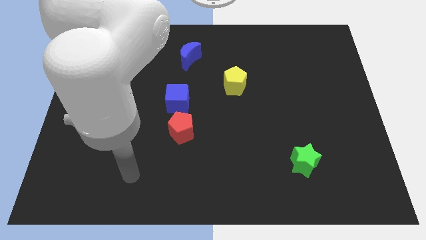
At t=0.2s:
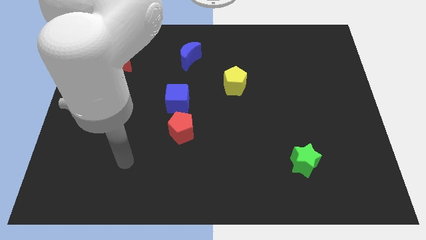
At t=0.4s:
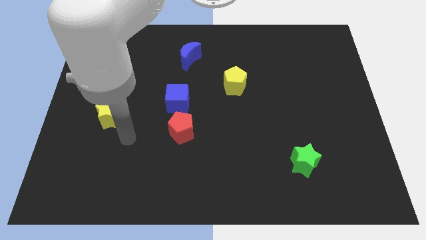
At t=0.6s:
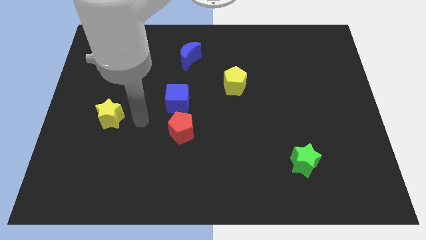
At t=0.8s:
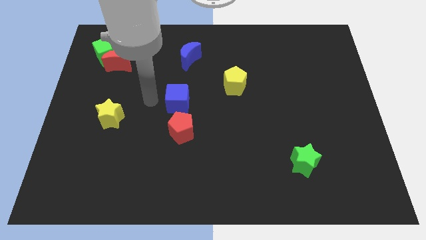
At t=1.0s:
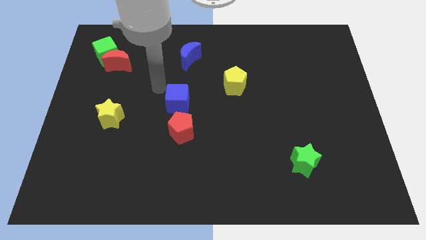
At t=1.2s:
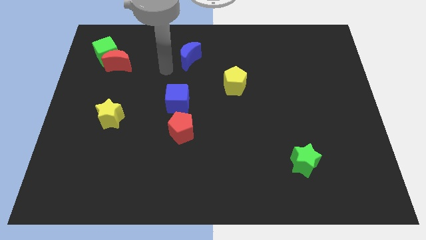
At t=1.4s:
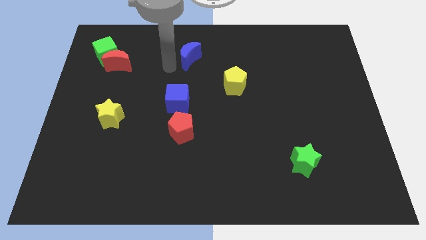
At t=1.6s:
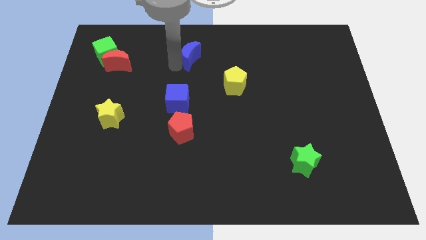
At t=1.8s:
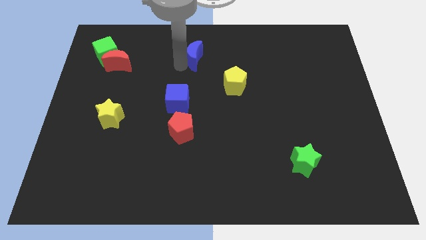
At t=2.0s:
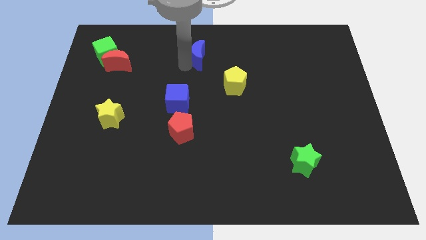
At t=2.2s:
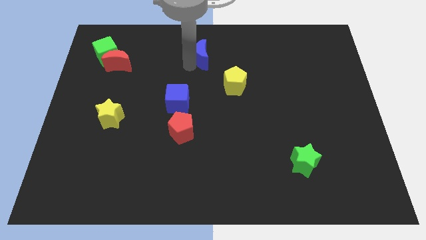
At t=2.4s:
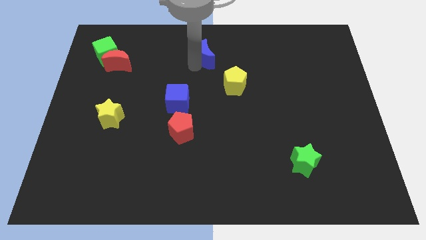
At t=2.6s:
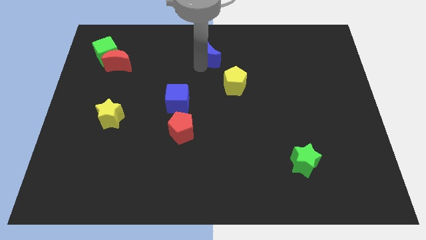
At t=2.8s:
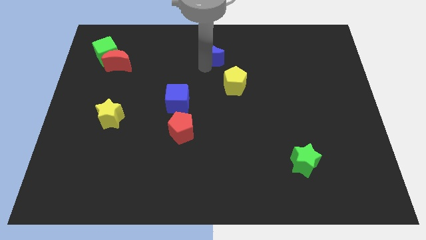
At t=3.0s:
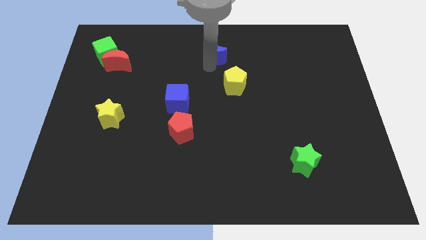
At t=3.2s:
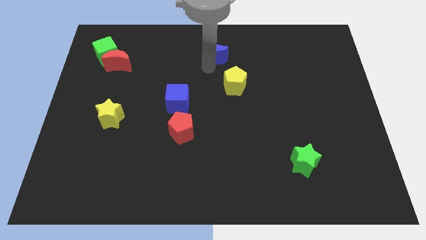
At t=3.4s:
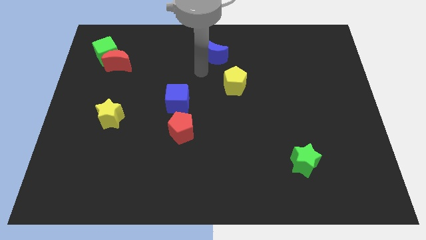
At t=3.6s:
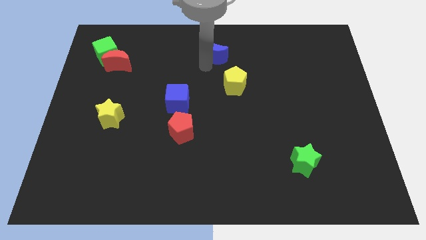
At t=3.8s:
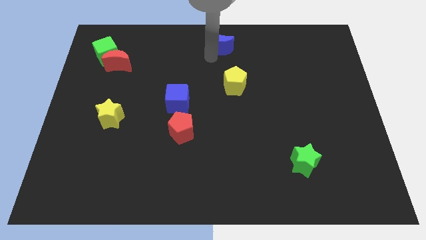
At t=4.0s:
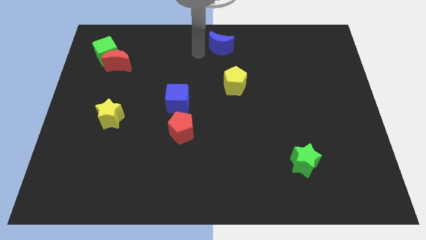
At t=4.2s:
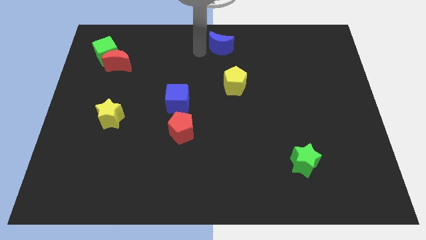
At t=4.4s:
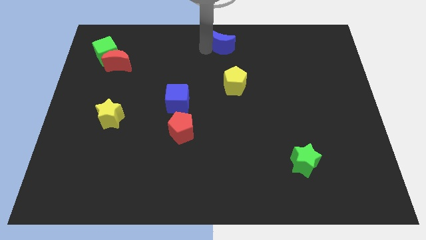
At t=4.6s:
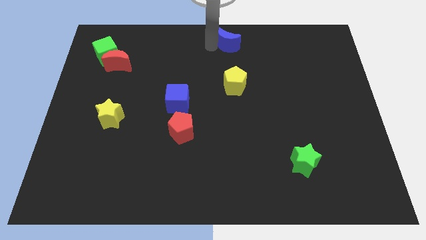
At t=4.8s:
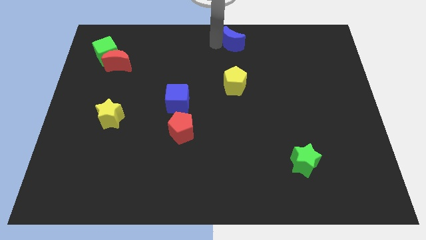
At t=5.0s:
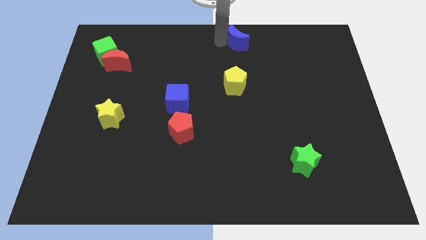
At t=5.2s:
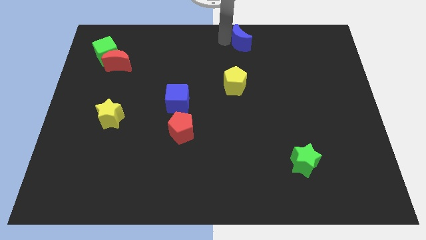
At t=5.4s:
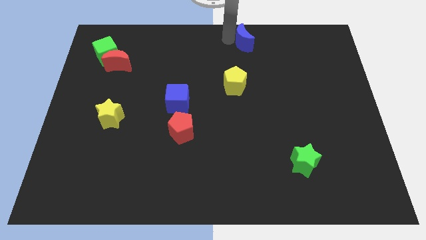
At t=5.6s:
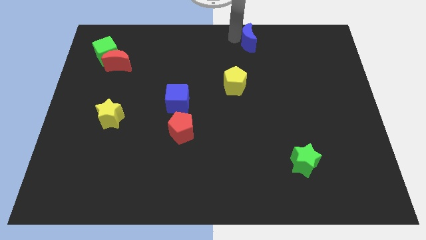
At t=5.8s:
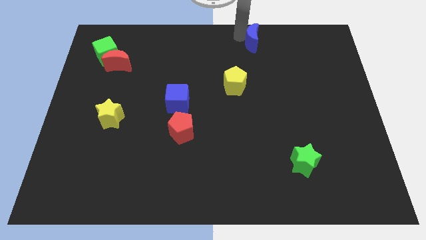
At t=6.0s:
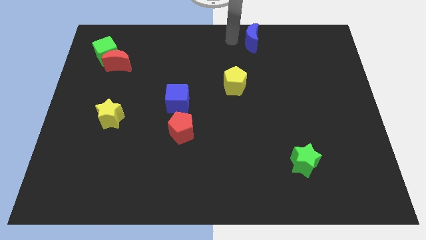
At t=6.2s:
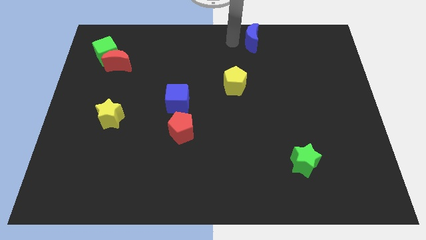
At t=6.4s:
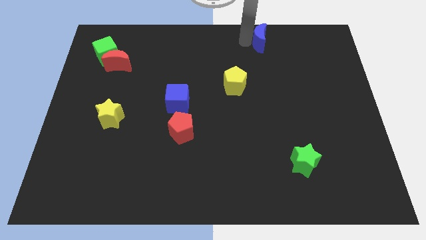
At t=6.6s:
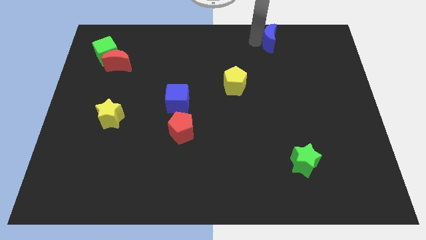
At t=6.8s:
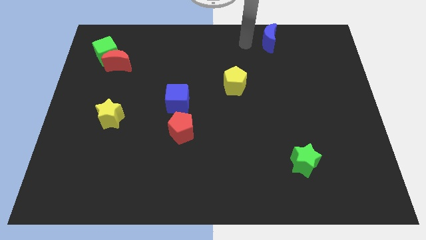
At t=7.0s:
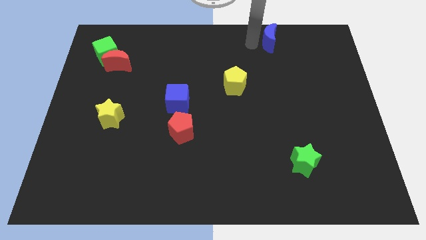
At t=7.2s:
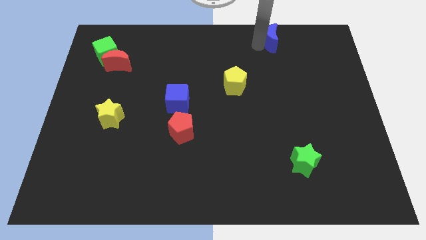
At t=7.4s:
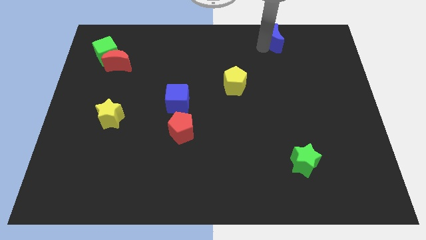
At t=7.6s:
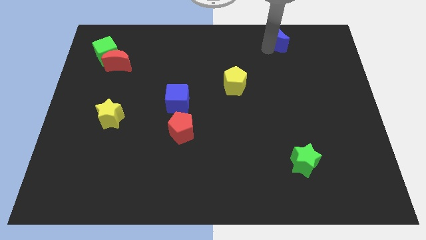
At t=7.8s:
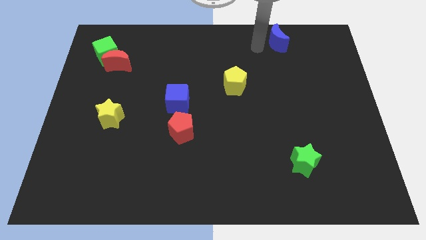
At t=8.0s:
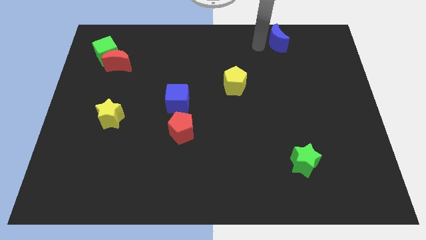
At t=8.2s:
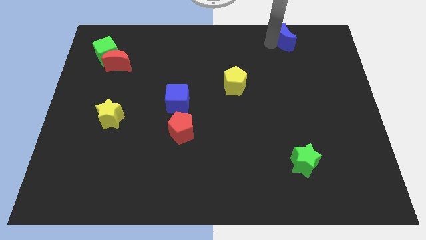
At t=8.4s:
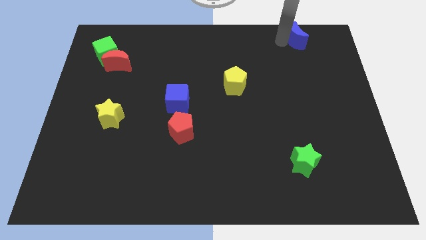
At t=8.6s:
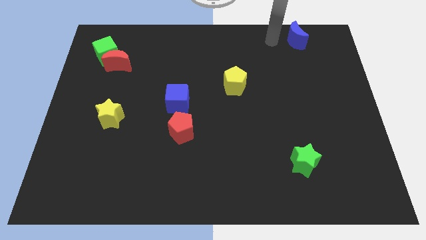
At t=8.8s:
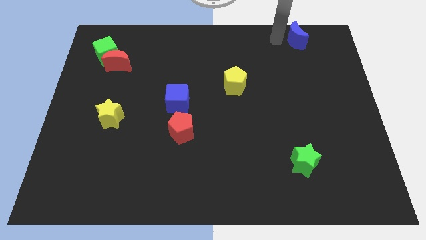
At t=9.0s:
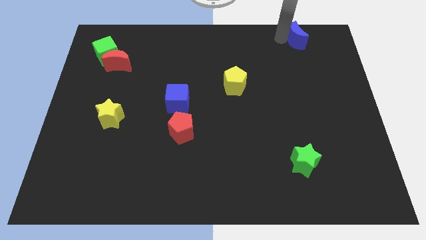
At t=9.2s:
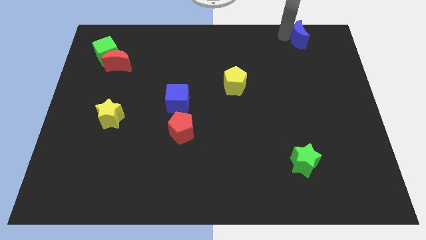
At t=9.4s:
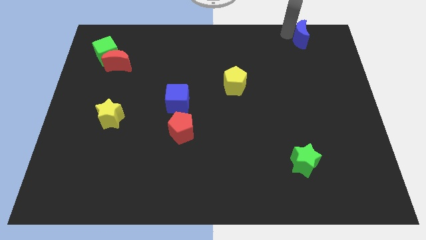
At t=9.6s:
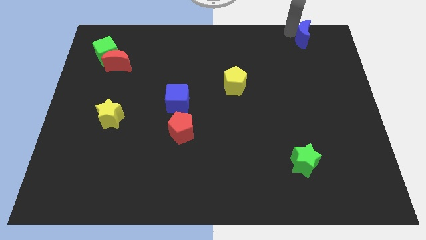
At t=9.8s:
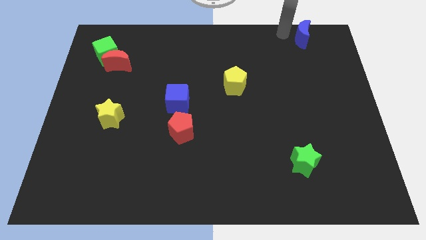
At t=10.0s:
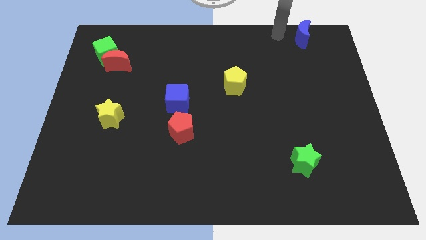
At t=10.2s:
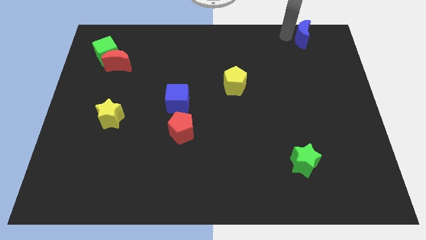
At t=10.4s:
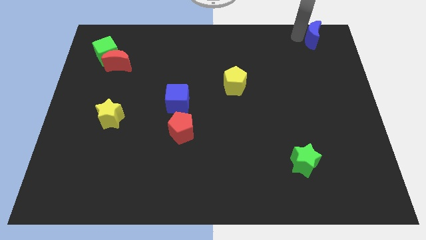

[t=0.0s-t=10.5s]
put the blue moon to the upper right corner

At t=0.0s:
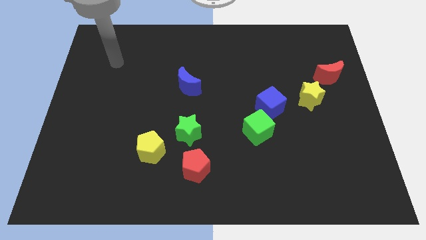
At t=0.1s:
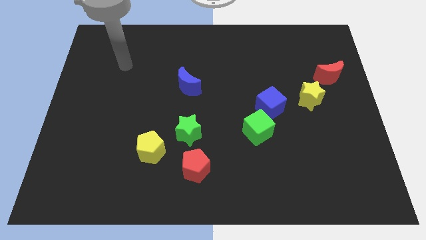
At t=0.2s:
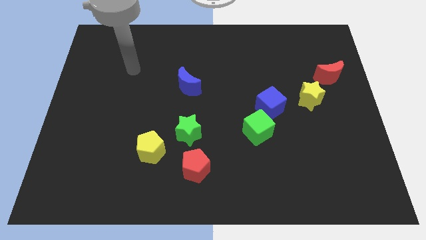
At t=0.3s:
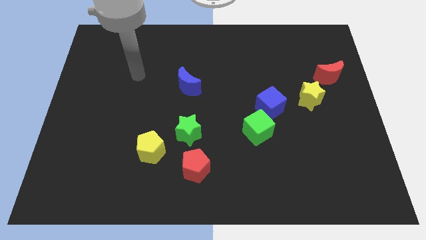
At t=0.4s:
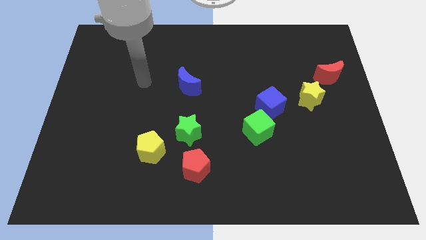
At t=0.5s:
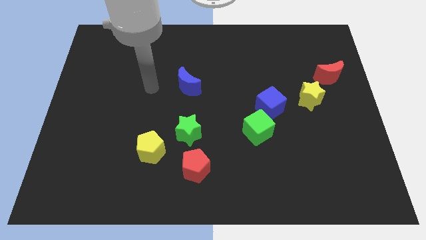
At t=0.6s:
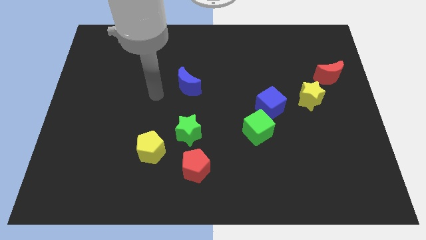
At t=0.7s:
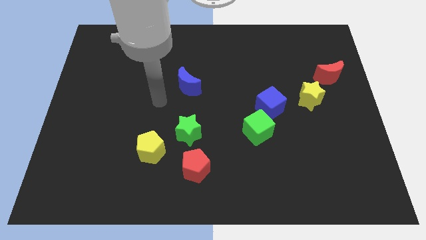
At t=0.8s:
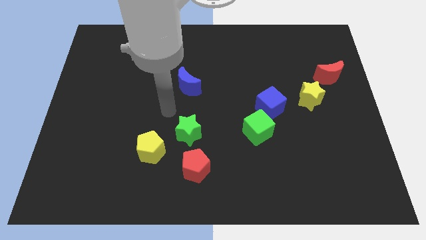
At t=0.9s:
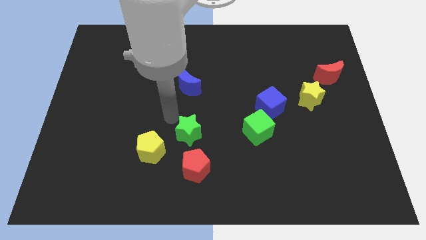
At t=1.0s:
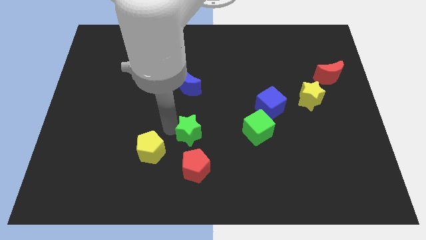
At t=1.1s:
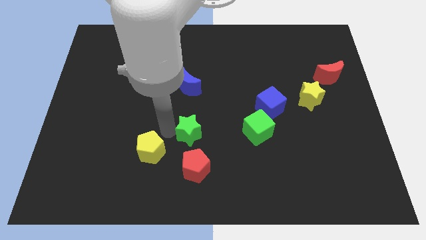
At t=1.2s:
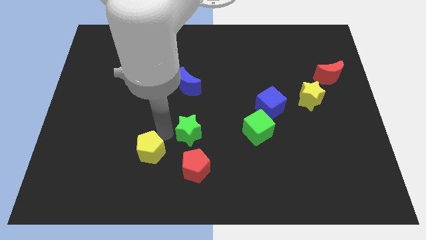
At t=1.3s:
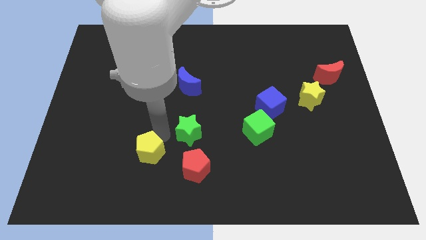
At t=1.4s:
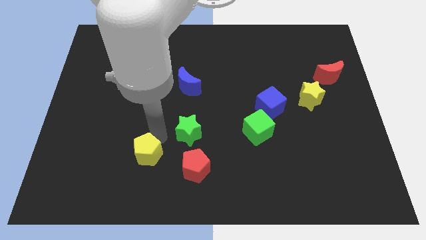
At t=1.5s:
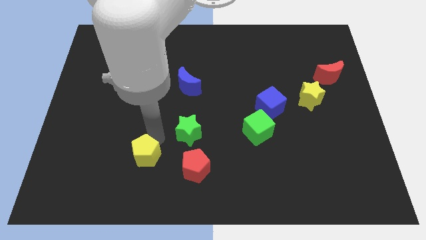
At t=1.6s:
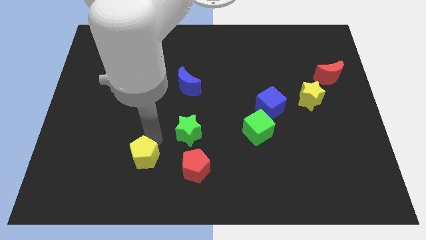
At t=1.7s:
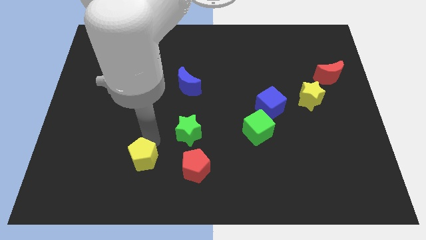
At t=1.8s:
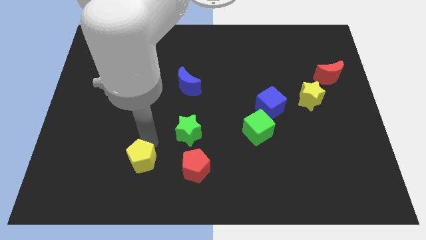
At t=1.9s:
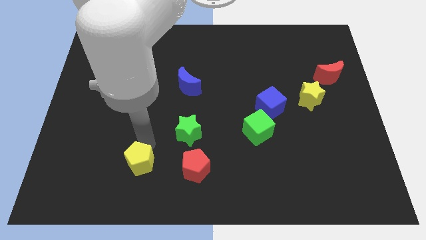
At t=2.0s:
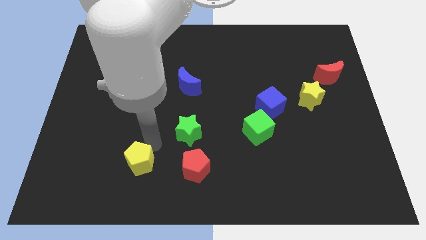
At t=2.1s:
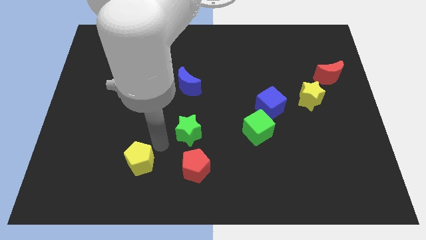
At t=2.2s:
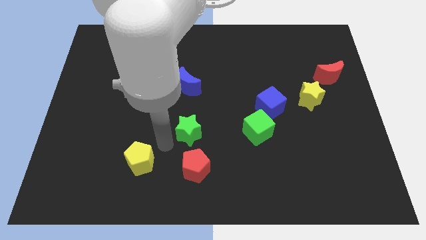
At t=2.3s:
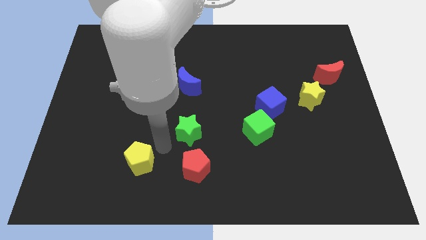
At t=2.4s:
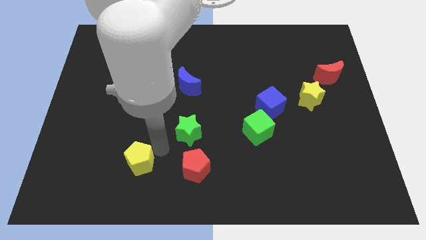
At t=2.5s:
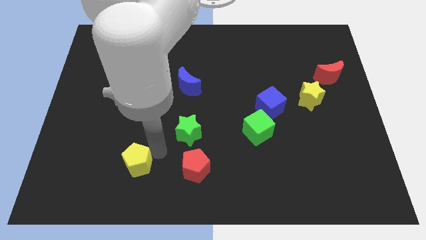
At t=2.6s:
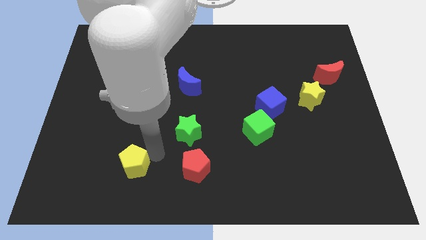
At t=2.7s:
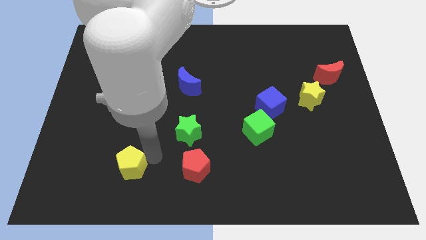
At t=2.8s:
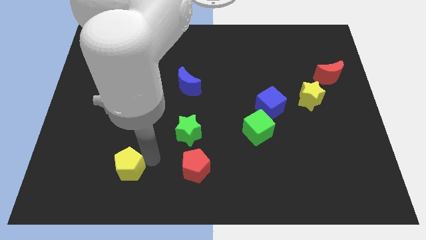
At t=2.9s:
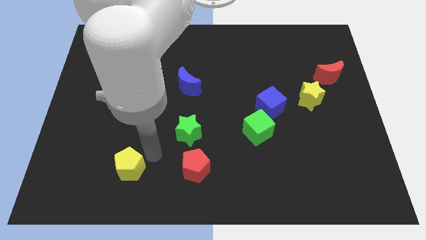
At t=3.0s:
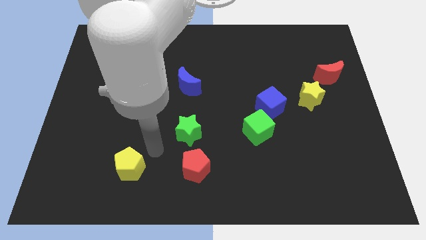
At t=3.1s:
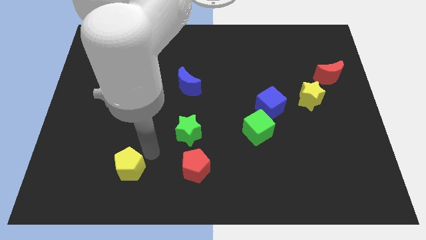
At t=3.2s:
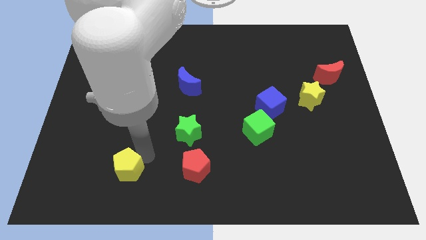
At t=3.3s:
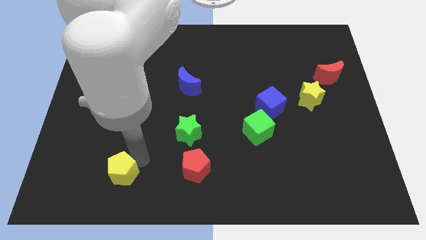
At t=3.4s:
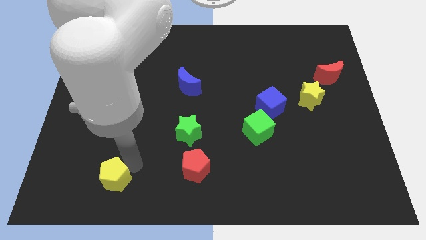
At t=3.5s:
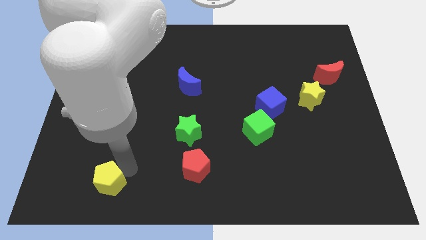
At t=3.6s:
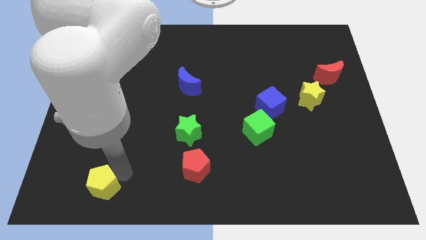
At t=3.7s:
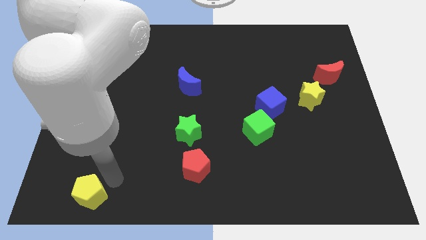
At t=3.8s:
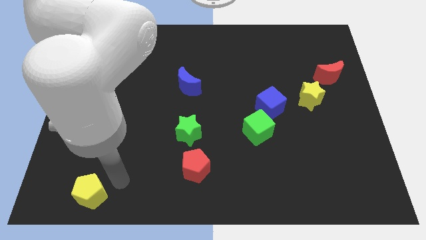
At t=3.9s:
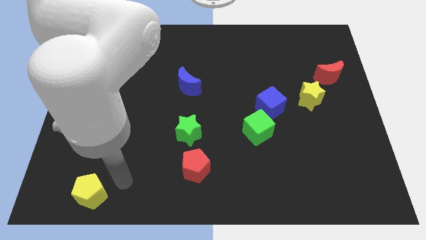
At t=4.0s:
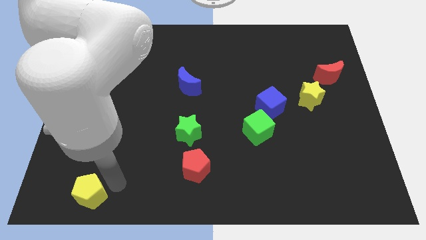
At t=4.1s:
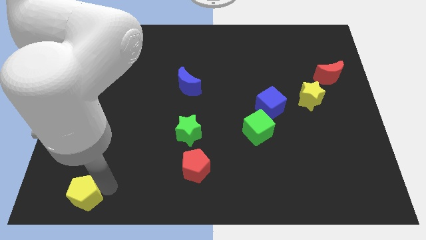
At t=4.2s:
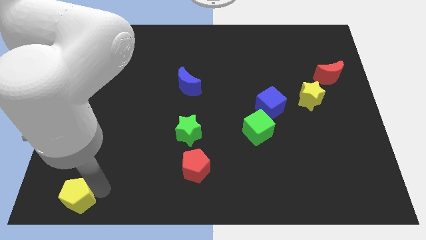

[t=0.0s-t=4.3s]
slide the yellow pentagon to the bottom left of the board
